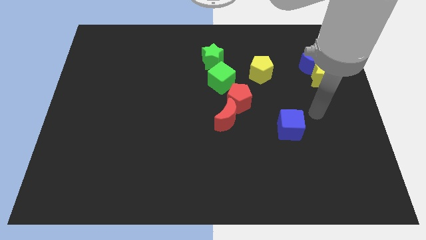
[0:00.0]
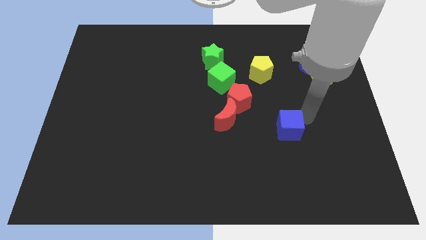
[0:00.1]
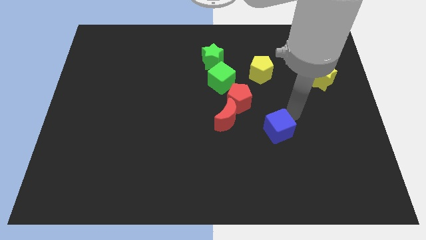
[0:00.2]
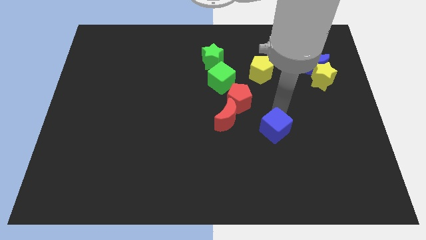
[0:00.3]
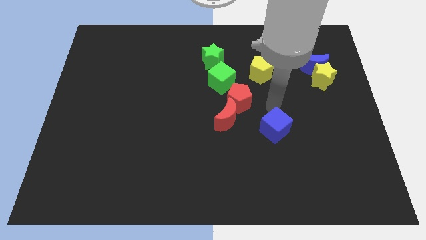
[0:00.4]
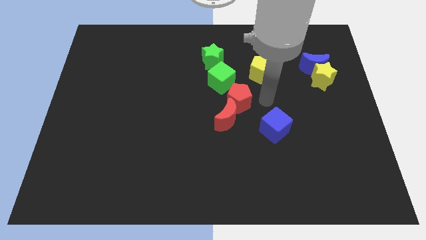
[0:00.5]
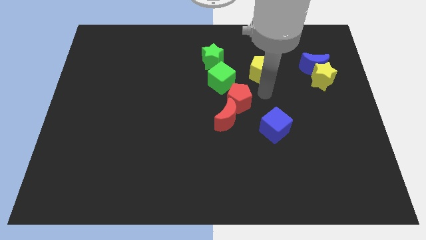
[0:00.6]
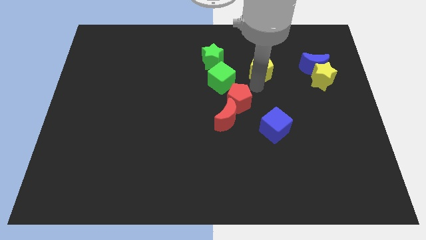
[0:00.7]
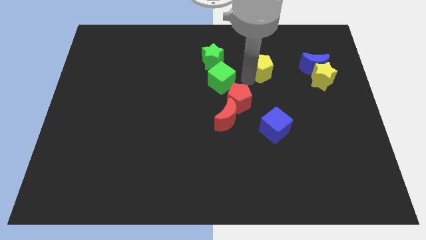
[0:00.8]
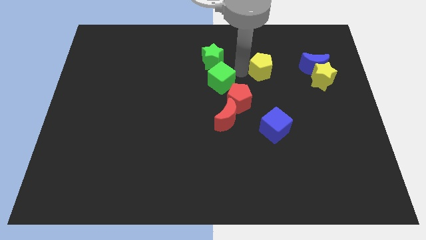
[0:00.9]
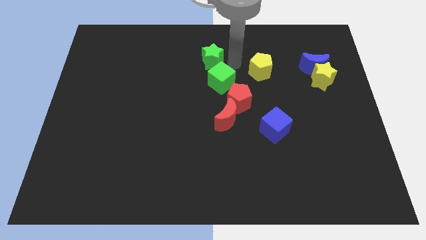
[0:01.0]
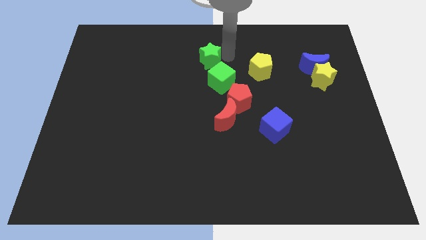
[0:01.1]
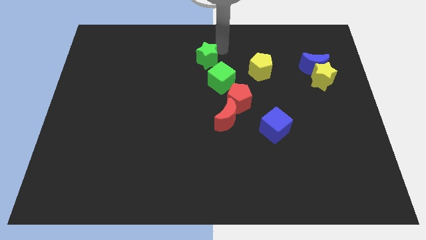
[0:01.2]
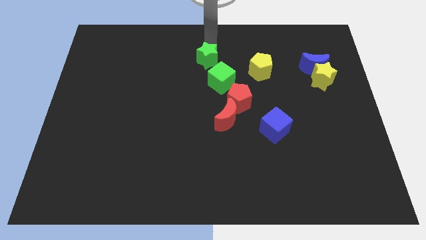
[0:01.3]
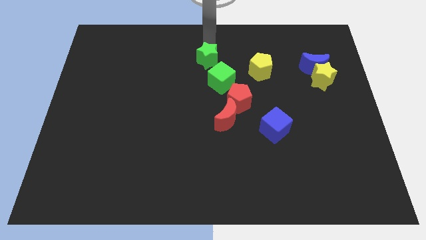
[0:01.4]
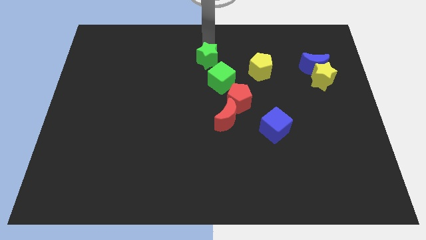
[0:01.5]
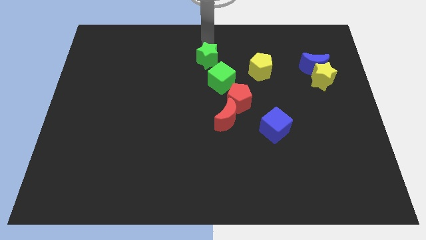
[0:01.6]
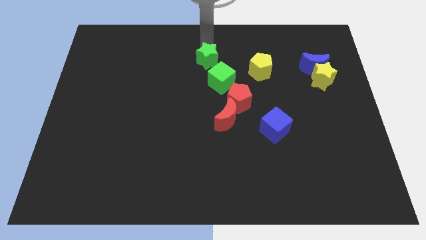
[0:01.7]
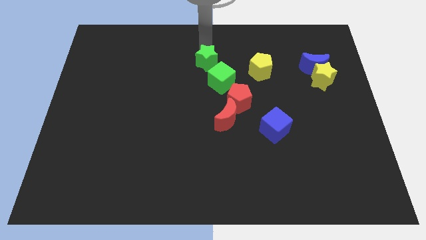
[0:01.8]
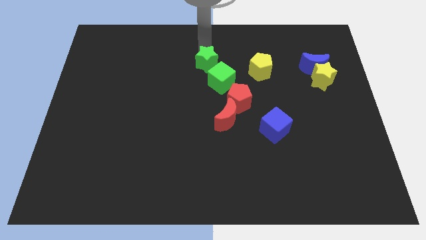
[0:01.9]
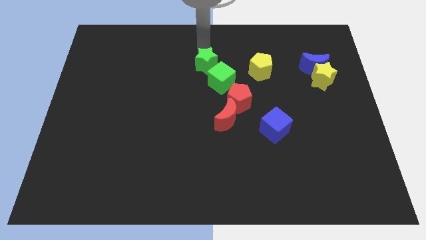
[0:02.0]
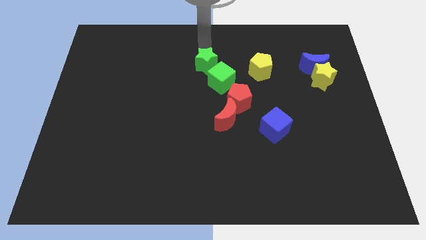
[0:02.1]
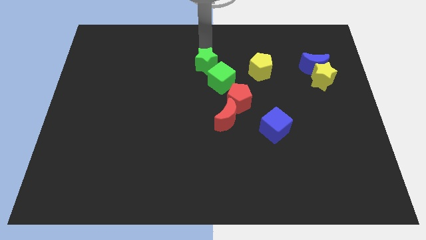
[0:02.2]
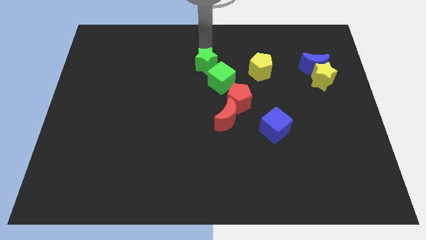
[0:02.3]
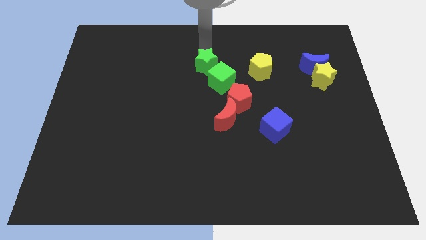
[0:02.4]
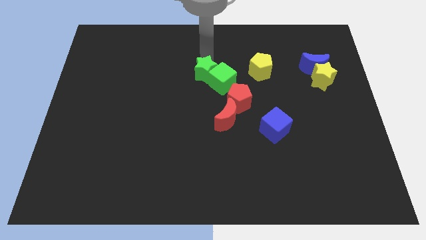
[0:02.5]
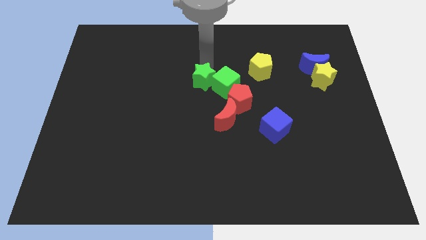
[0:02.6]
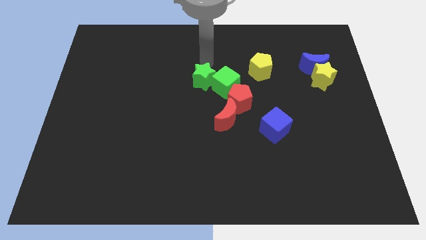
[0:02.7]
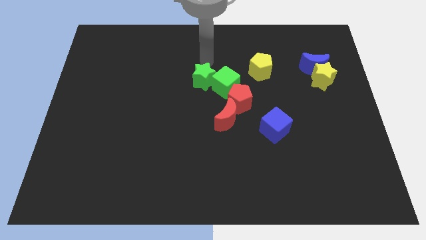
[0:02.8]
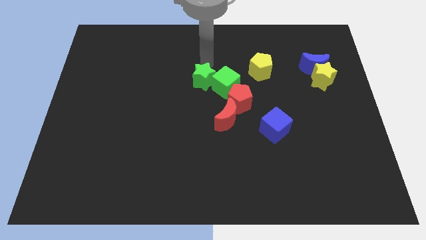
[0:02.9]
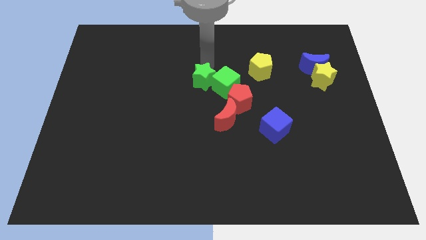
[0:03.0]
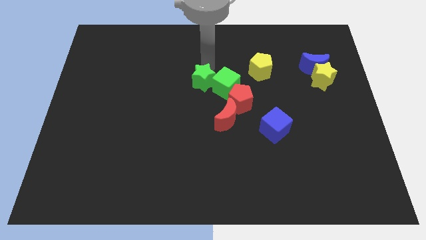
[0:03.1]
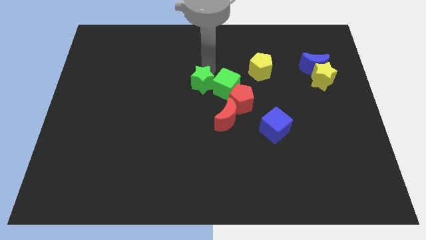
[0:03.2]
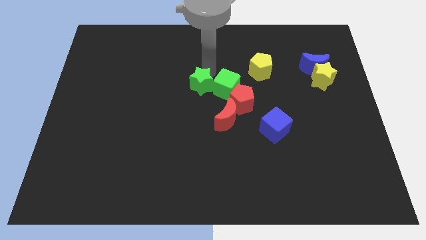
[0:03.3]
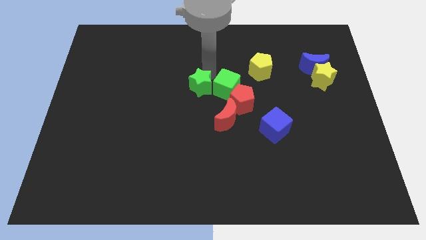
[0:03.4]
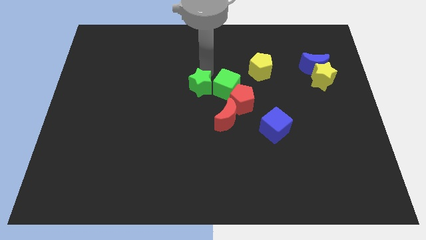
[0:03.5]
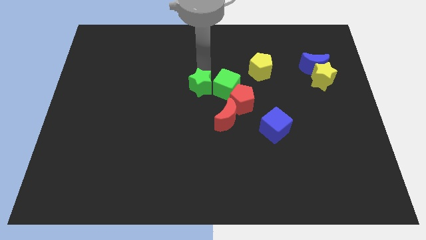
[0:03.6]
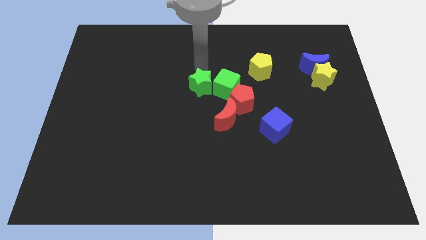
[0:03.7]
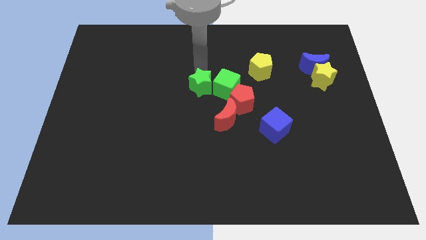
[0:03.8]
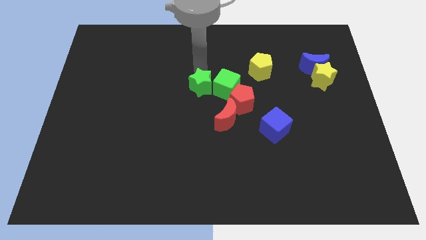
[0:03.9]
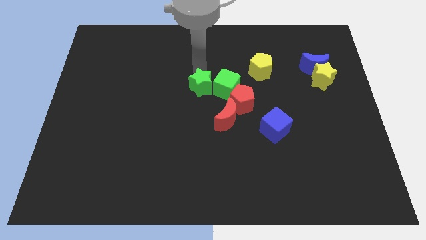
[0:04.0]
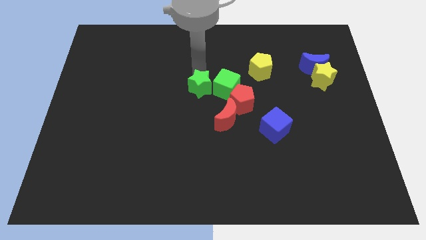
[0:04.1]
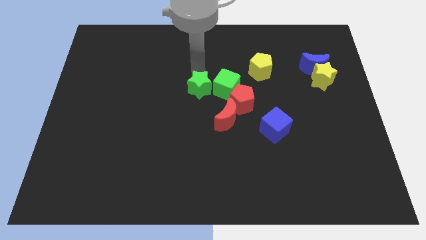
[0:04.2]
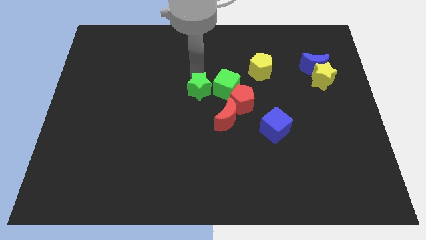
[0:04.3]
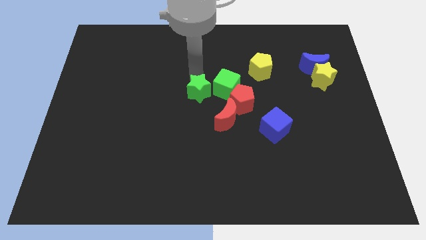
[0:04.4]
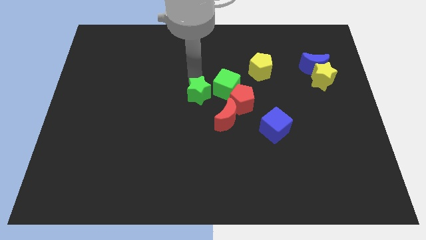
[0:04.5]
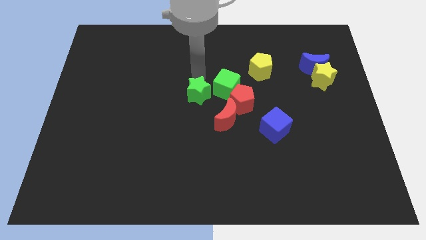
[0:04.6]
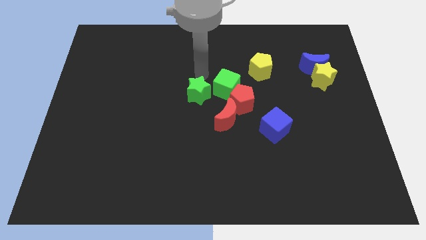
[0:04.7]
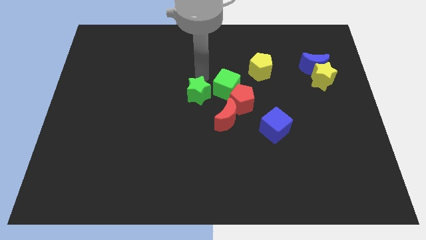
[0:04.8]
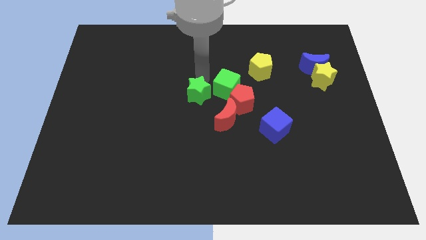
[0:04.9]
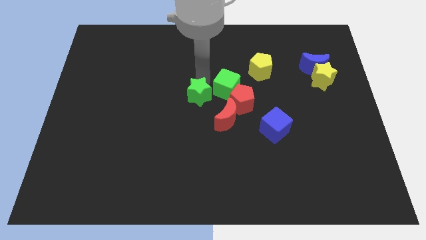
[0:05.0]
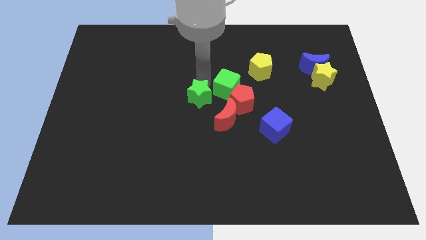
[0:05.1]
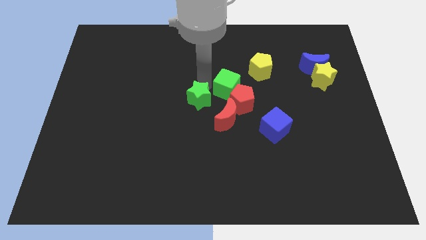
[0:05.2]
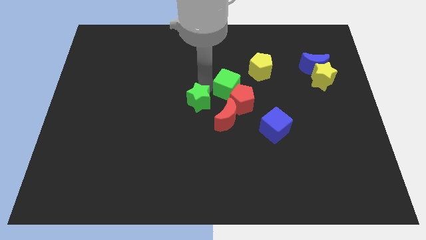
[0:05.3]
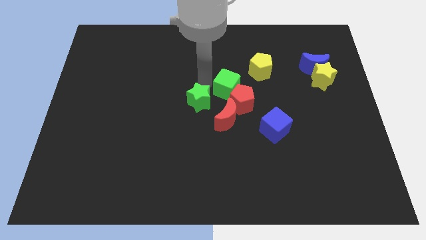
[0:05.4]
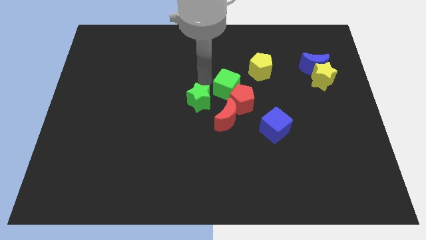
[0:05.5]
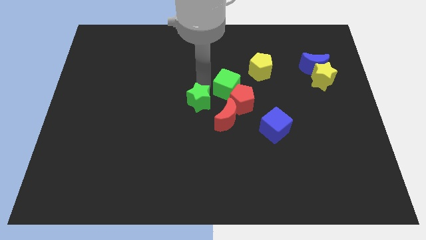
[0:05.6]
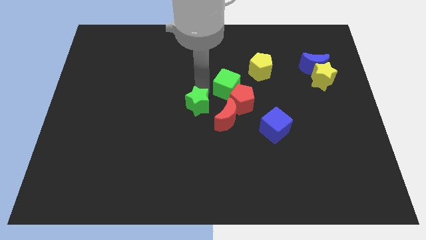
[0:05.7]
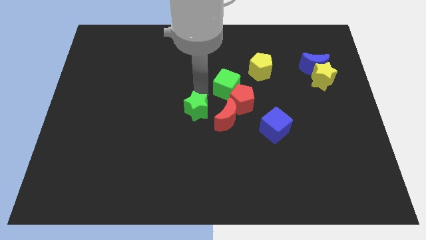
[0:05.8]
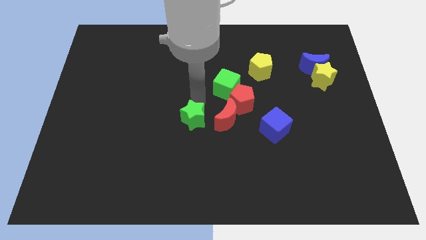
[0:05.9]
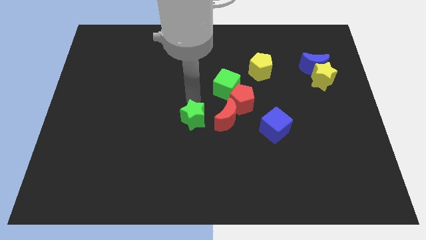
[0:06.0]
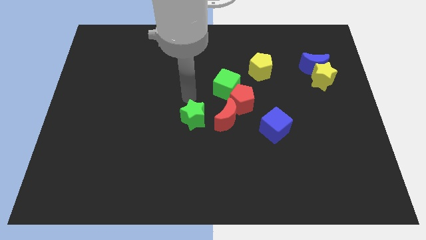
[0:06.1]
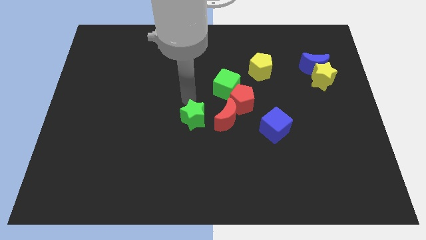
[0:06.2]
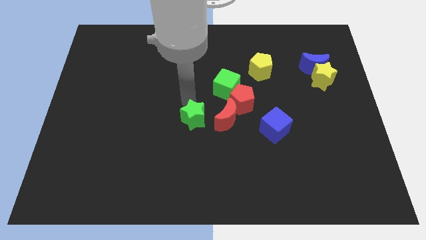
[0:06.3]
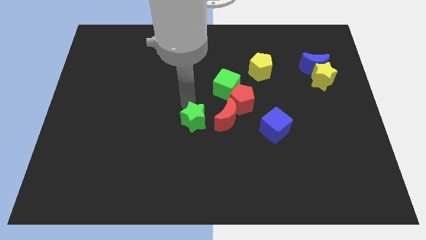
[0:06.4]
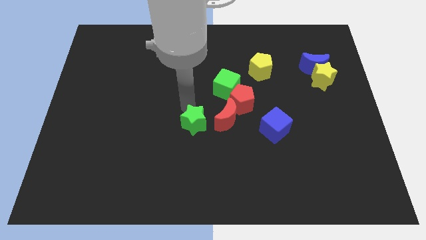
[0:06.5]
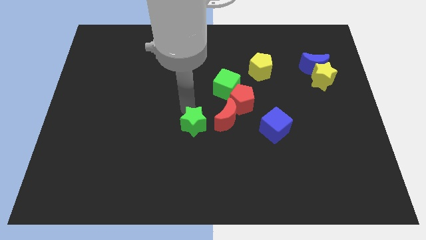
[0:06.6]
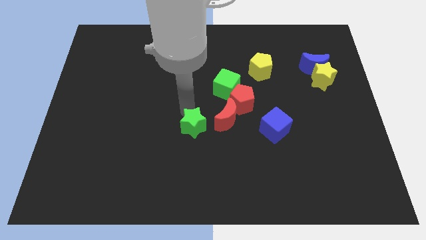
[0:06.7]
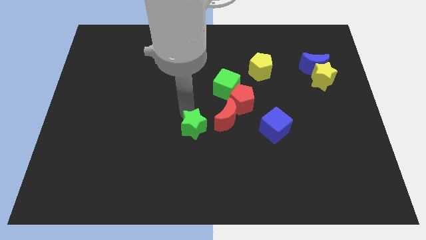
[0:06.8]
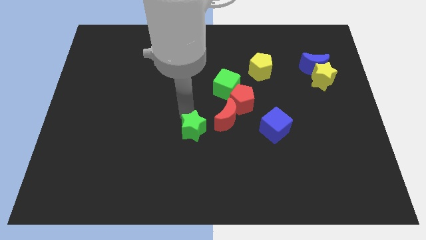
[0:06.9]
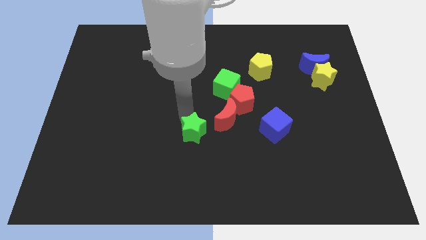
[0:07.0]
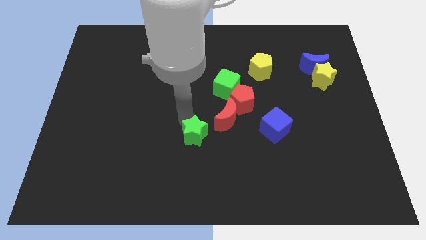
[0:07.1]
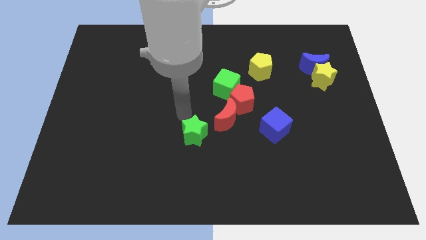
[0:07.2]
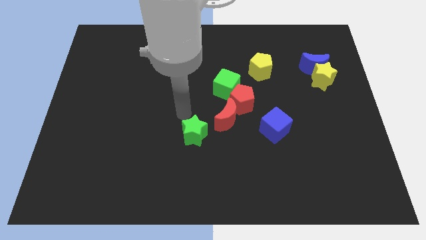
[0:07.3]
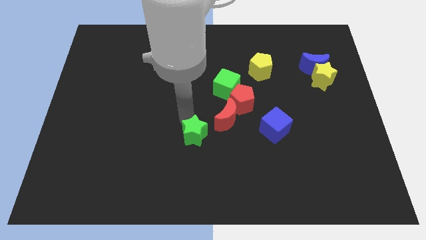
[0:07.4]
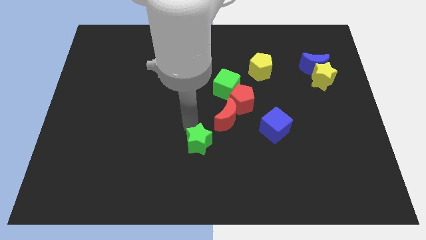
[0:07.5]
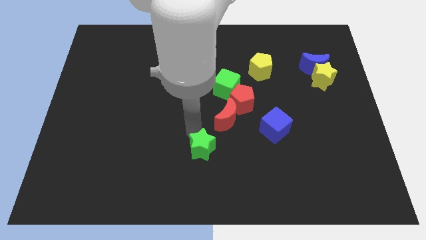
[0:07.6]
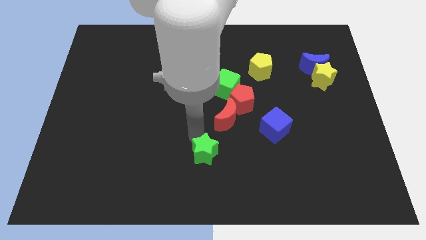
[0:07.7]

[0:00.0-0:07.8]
push the green star to the bottom
